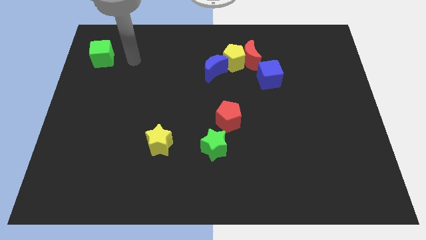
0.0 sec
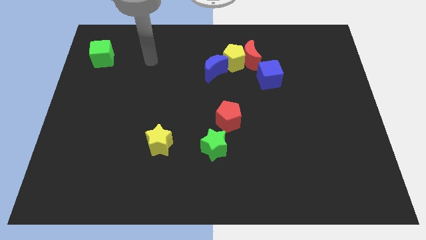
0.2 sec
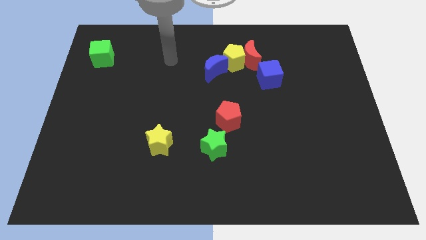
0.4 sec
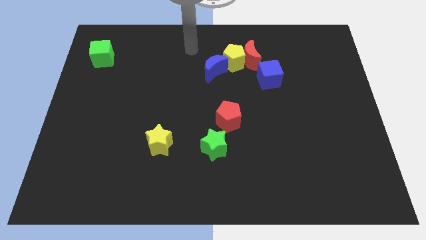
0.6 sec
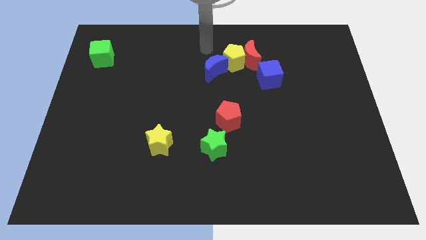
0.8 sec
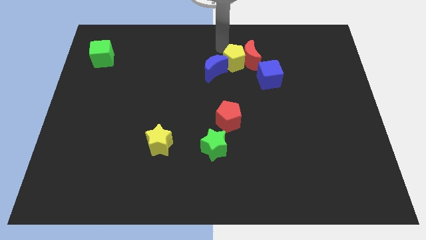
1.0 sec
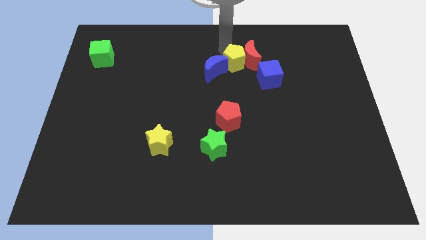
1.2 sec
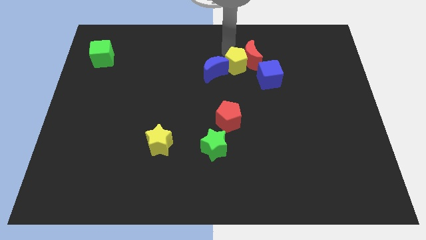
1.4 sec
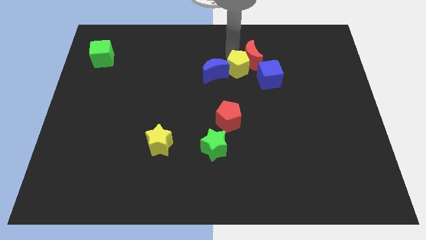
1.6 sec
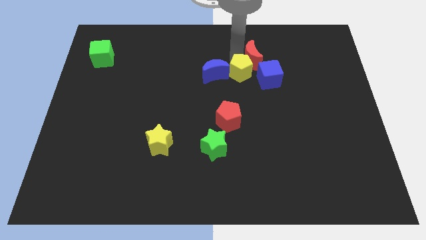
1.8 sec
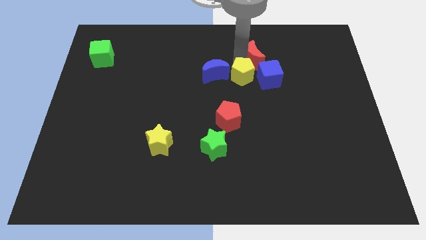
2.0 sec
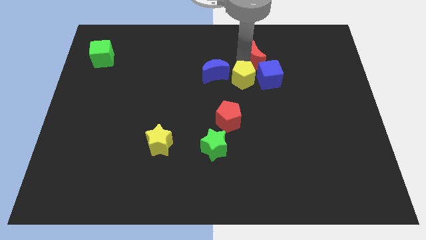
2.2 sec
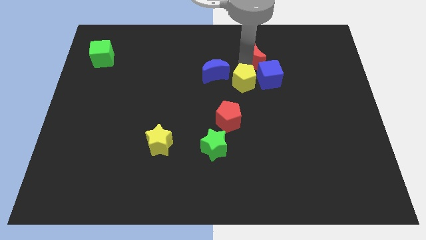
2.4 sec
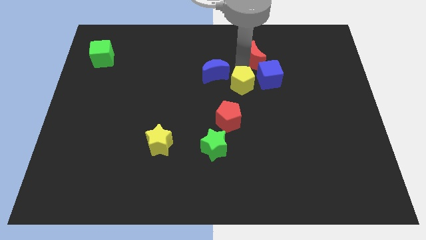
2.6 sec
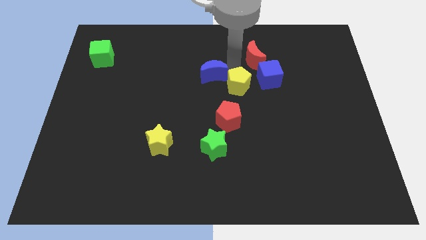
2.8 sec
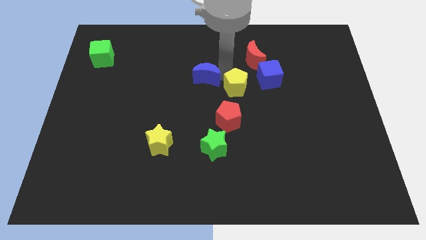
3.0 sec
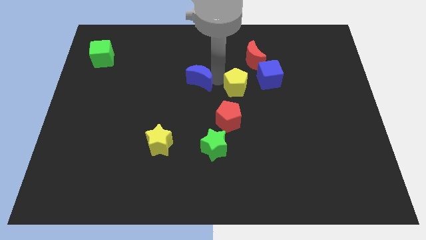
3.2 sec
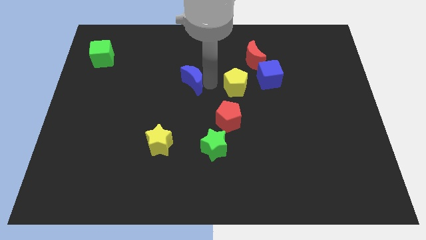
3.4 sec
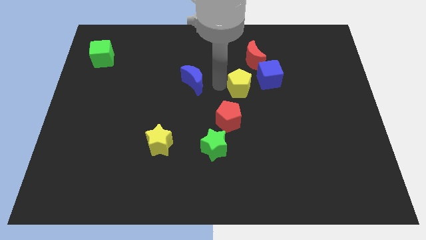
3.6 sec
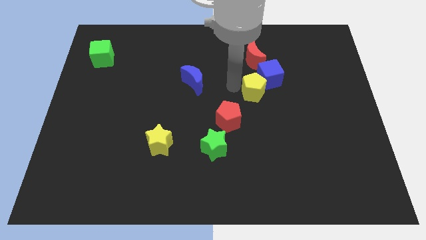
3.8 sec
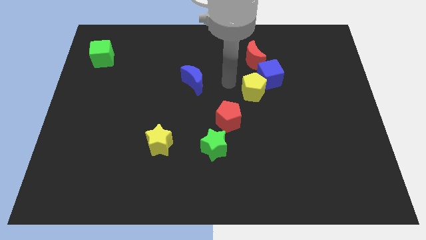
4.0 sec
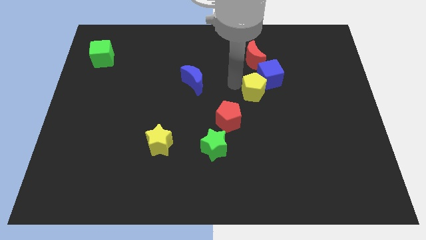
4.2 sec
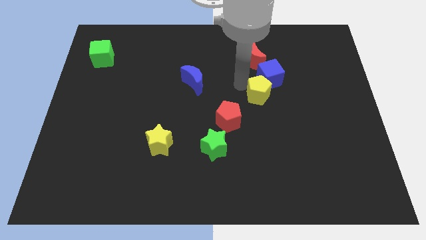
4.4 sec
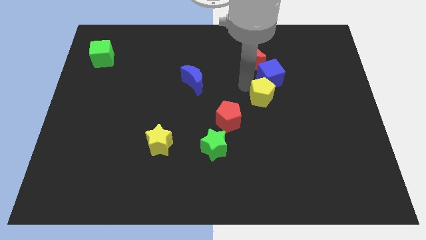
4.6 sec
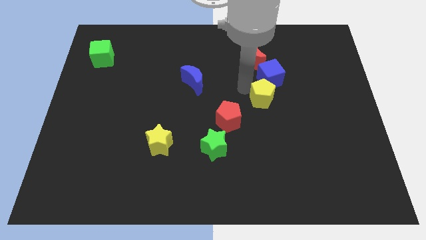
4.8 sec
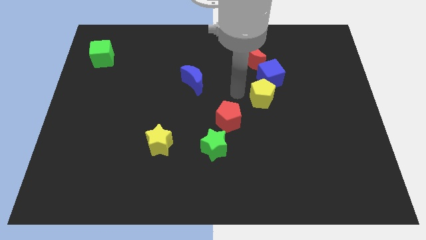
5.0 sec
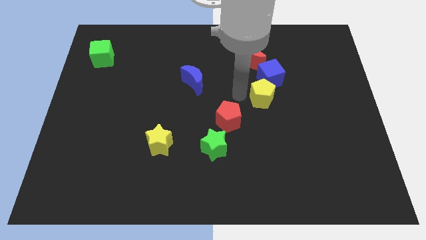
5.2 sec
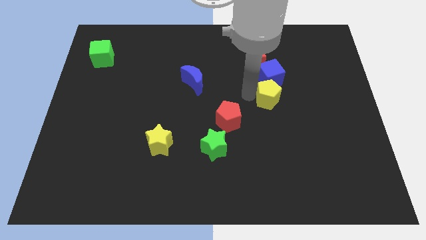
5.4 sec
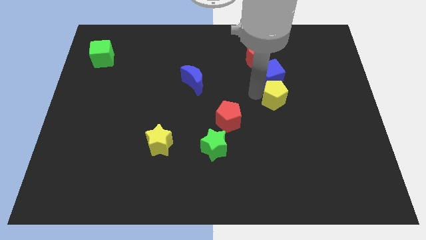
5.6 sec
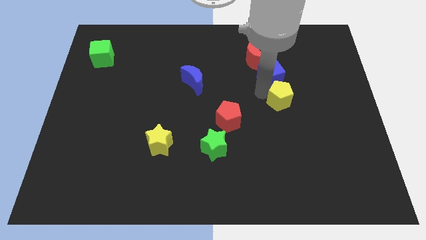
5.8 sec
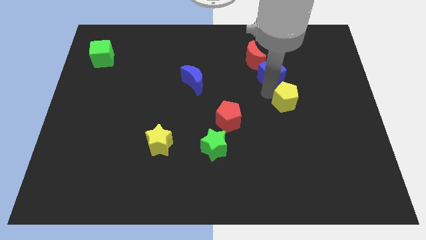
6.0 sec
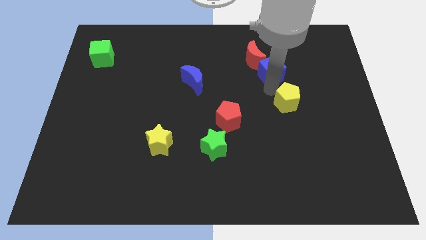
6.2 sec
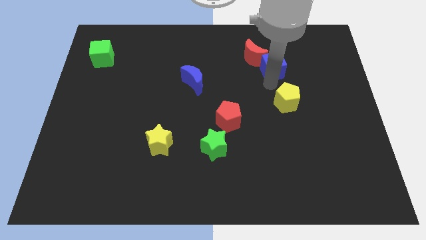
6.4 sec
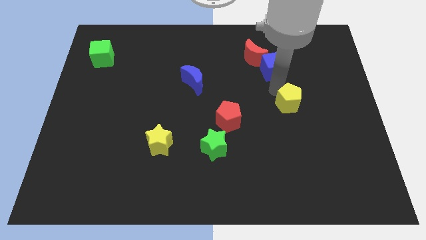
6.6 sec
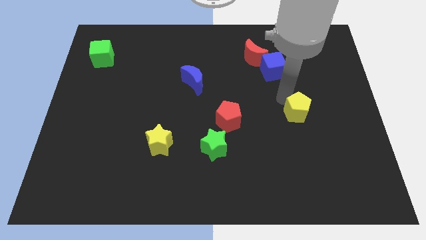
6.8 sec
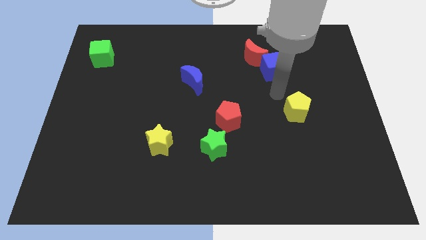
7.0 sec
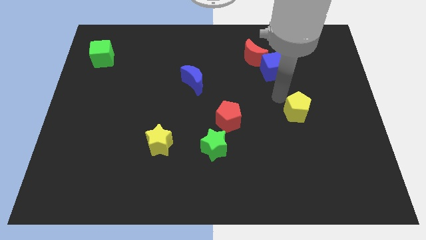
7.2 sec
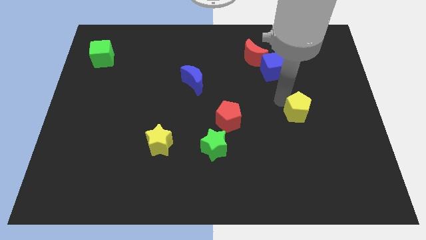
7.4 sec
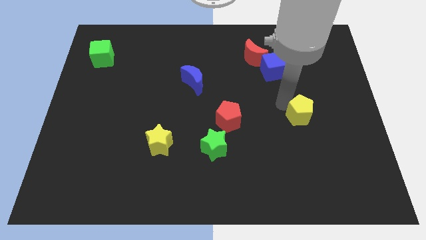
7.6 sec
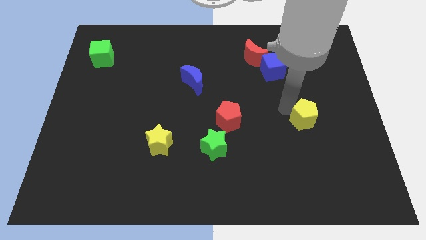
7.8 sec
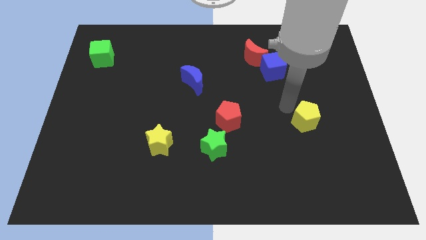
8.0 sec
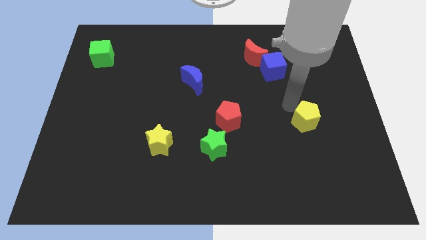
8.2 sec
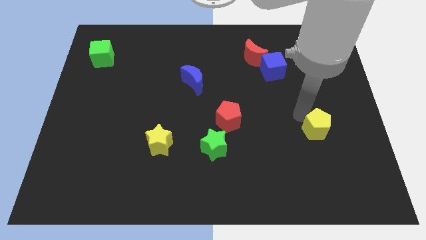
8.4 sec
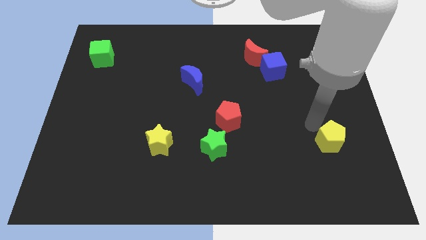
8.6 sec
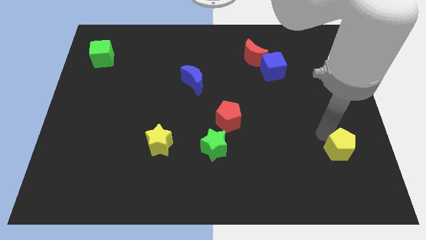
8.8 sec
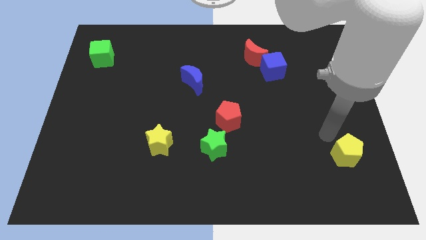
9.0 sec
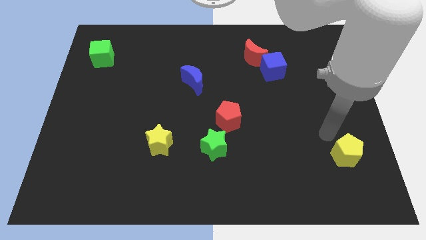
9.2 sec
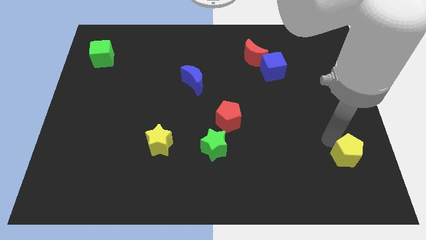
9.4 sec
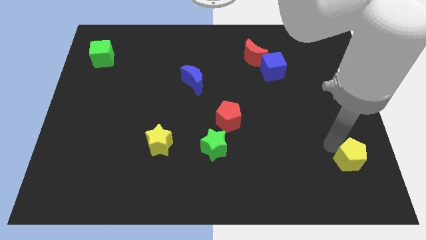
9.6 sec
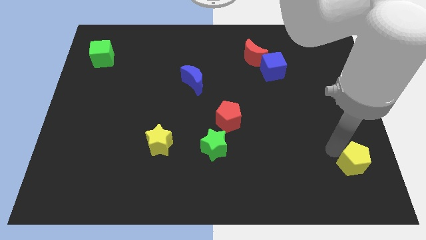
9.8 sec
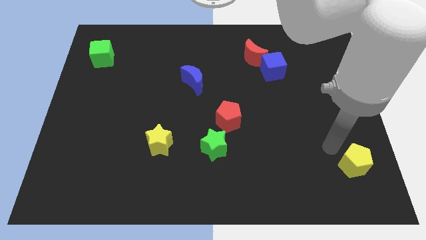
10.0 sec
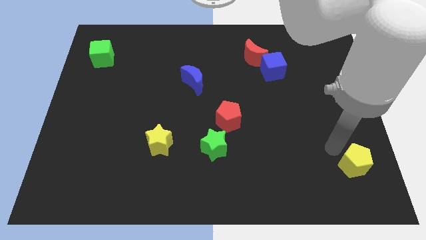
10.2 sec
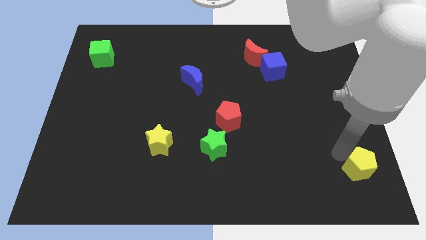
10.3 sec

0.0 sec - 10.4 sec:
move the yellow pentagon to the bottom right

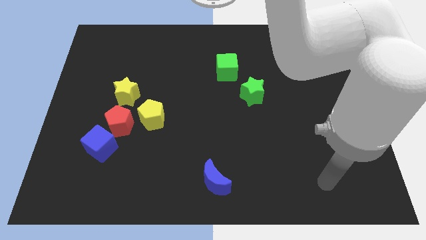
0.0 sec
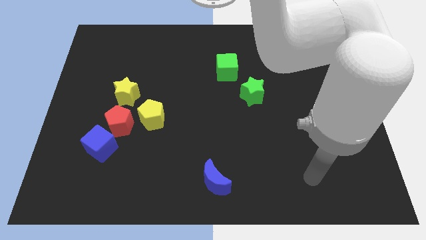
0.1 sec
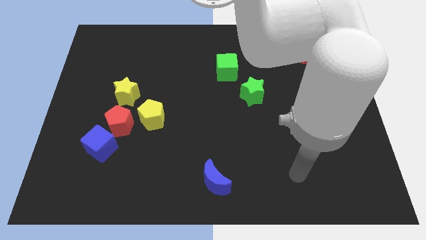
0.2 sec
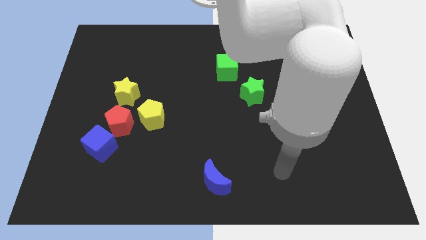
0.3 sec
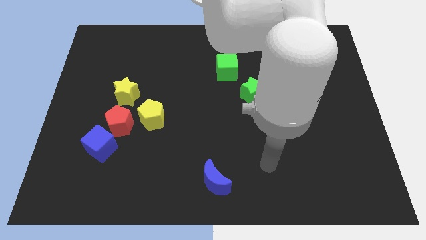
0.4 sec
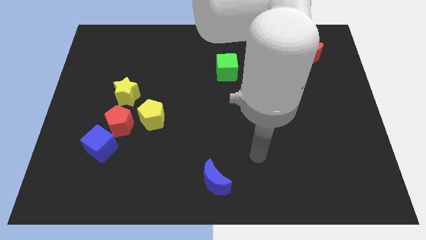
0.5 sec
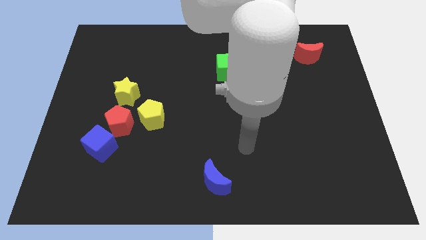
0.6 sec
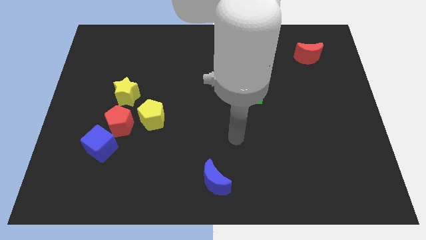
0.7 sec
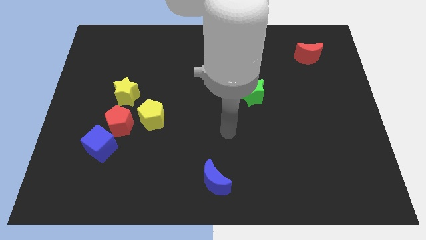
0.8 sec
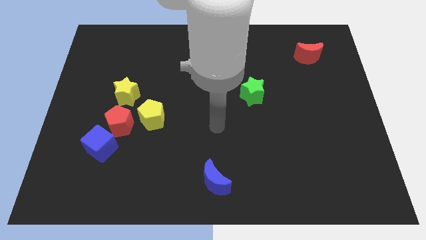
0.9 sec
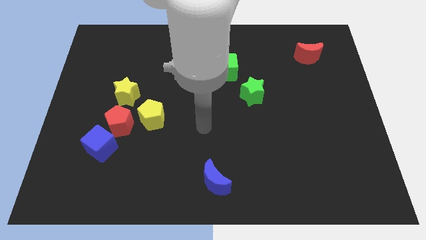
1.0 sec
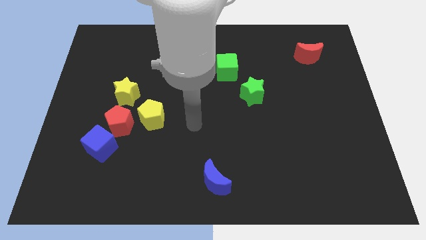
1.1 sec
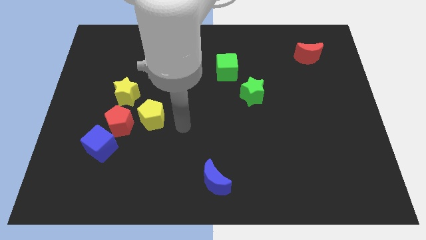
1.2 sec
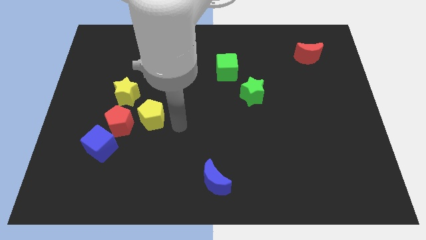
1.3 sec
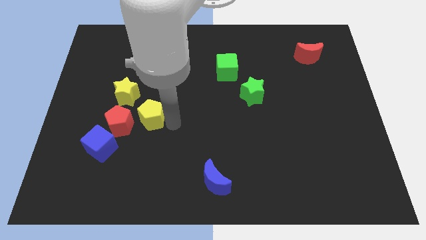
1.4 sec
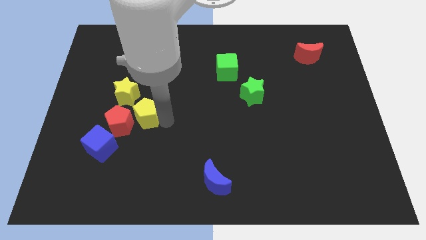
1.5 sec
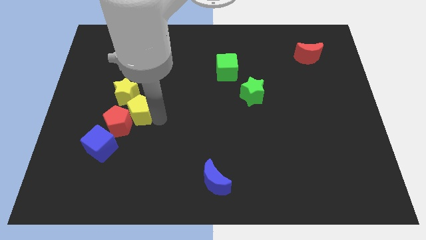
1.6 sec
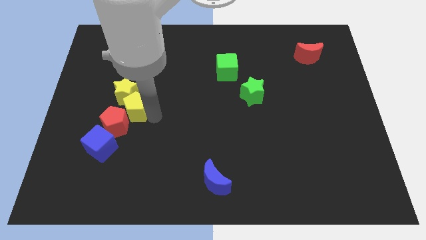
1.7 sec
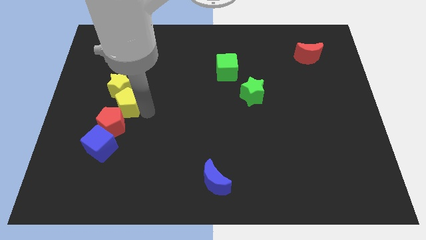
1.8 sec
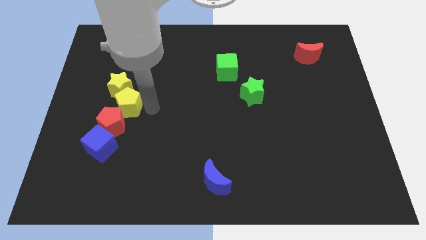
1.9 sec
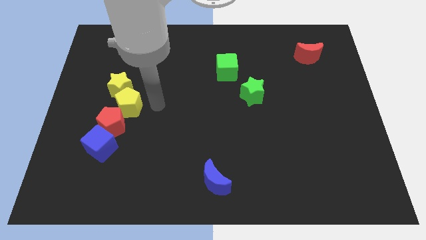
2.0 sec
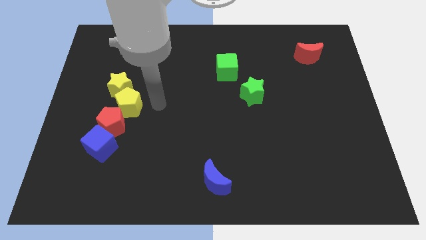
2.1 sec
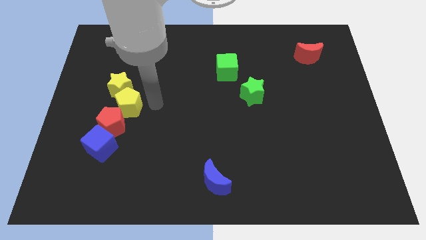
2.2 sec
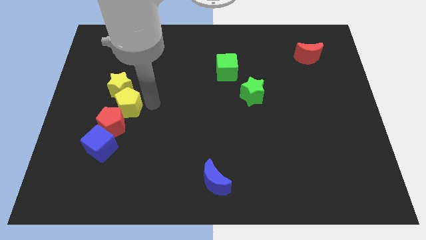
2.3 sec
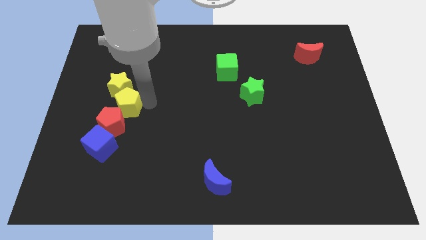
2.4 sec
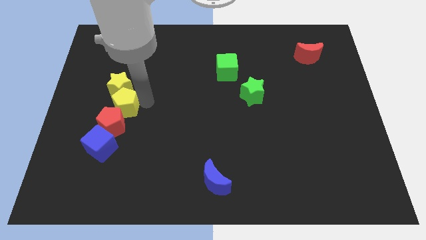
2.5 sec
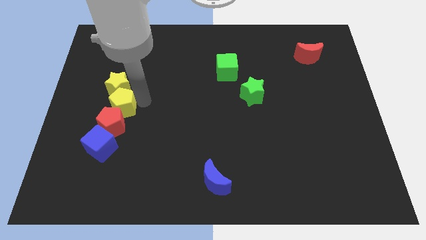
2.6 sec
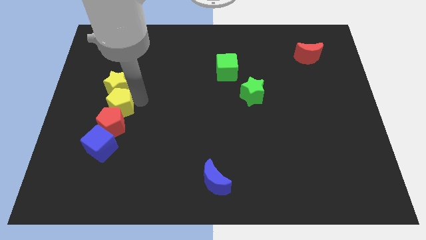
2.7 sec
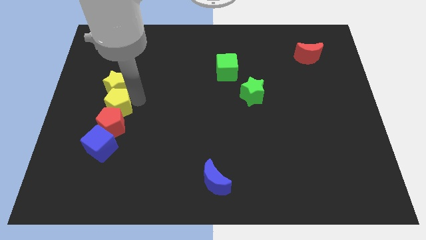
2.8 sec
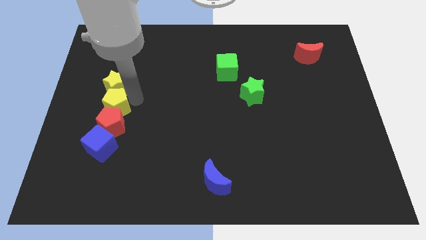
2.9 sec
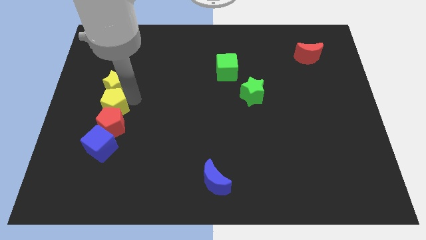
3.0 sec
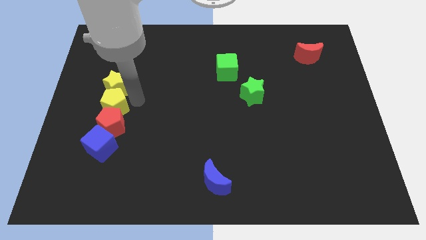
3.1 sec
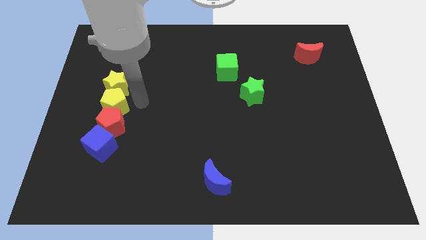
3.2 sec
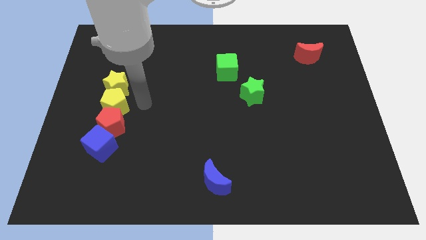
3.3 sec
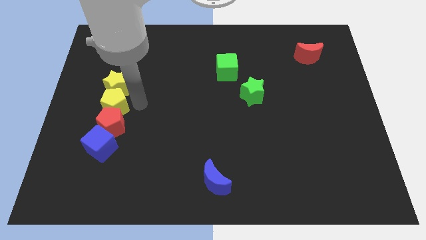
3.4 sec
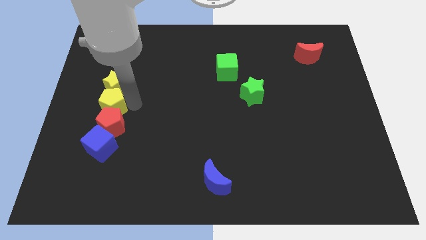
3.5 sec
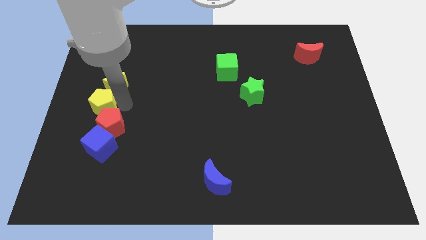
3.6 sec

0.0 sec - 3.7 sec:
put the yellow pentagon to the left side
